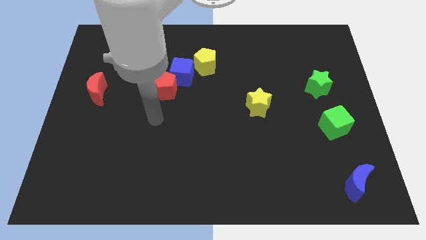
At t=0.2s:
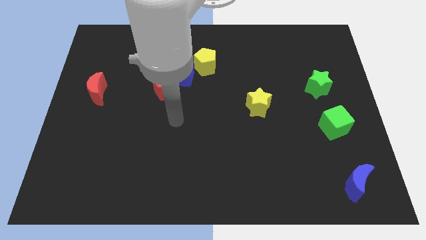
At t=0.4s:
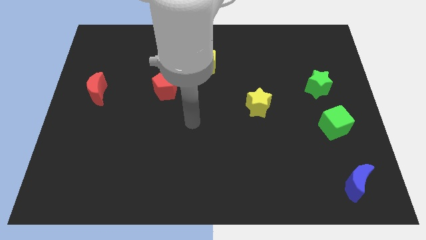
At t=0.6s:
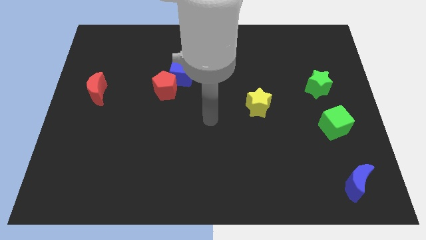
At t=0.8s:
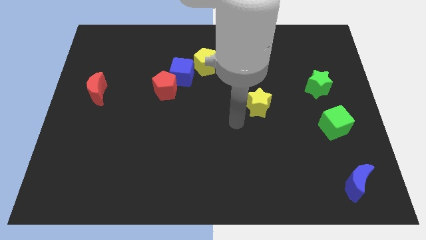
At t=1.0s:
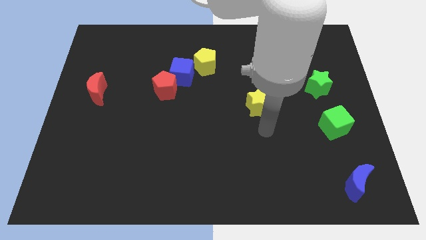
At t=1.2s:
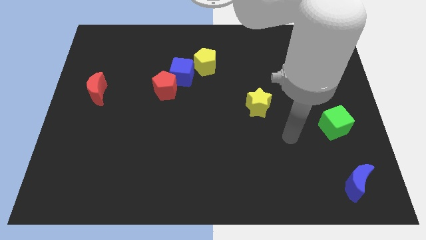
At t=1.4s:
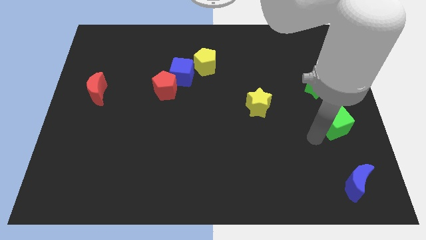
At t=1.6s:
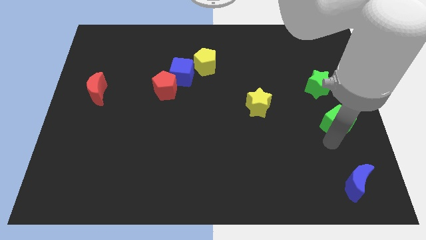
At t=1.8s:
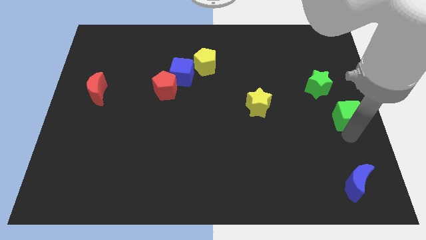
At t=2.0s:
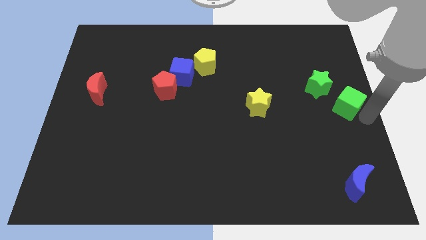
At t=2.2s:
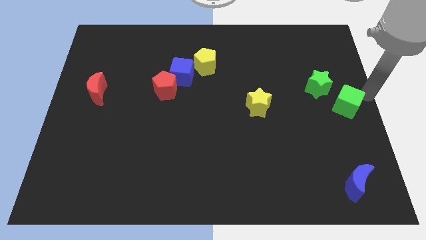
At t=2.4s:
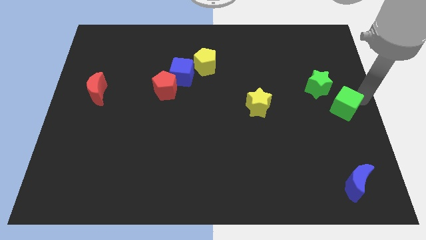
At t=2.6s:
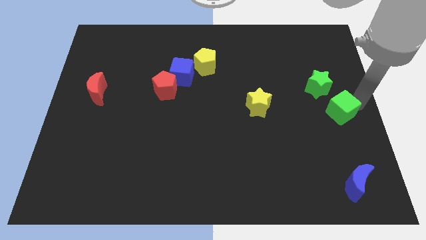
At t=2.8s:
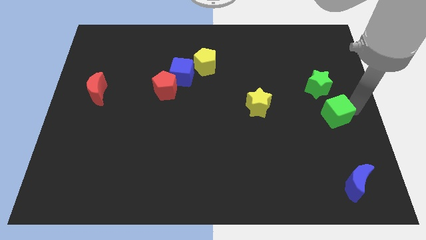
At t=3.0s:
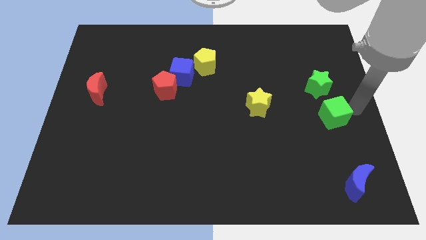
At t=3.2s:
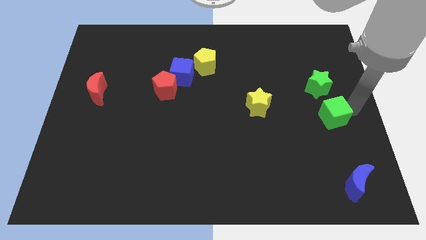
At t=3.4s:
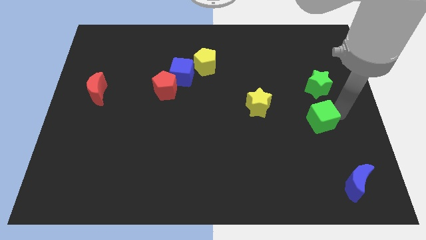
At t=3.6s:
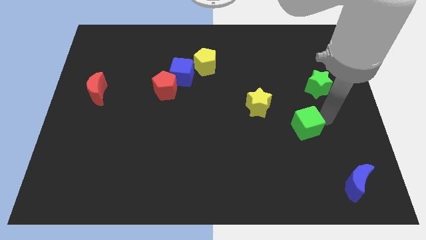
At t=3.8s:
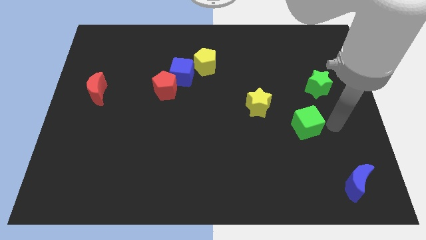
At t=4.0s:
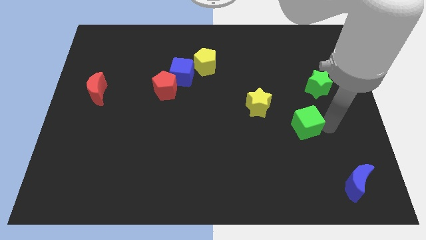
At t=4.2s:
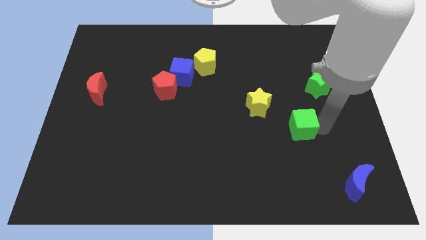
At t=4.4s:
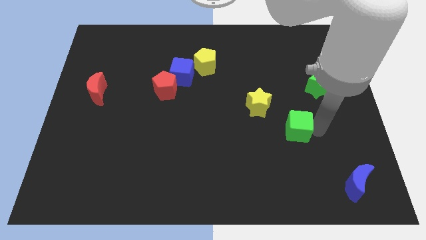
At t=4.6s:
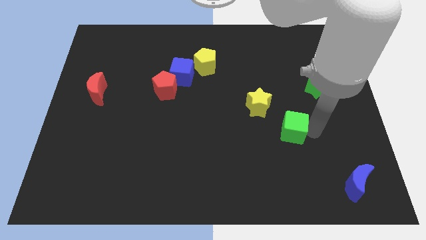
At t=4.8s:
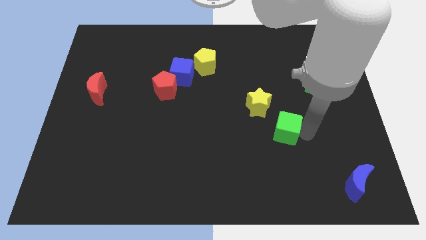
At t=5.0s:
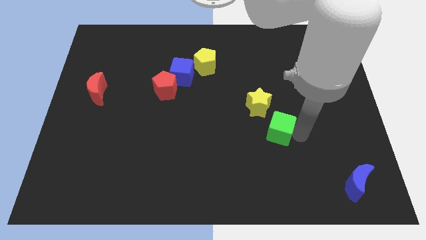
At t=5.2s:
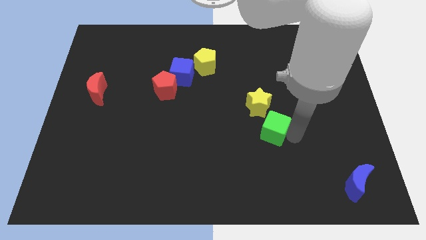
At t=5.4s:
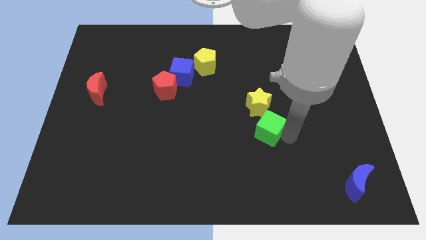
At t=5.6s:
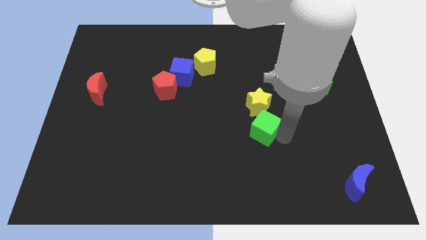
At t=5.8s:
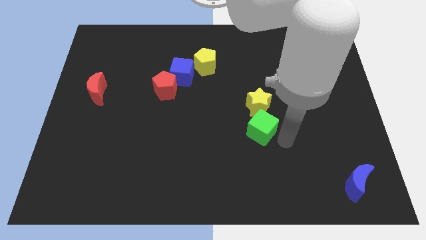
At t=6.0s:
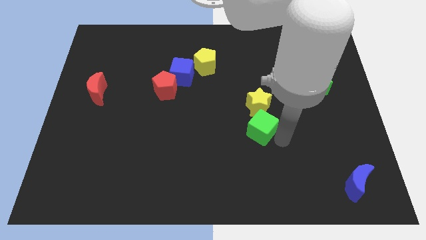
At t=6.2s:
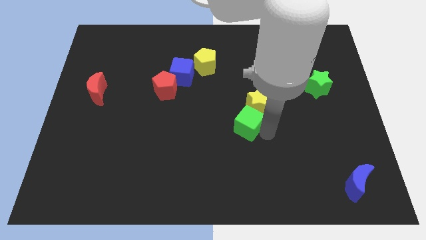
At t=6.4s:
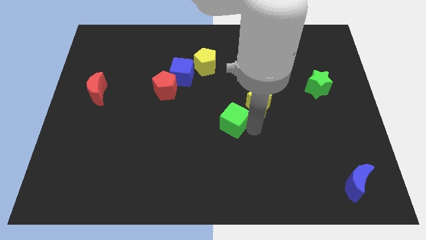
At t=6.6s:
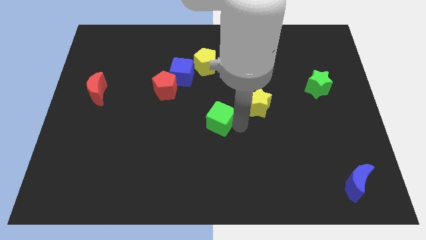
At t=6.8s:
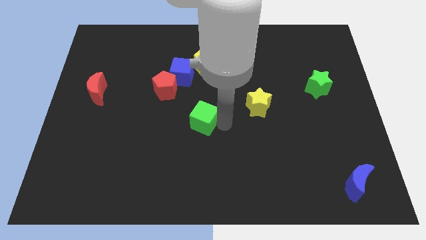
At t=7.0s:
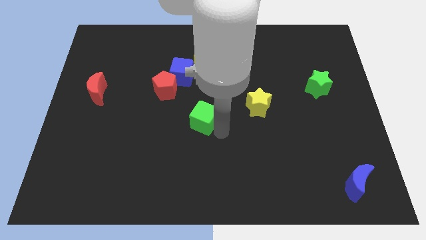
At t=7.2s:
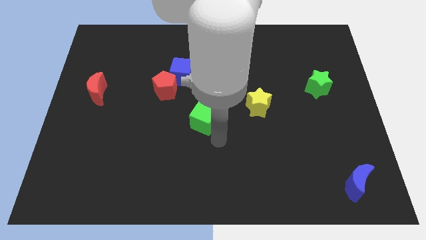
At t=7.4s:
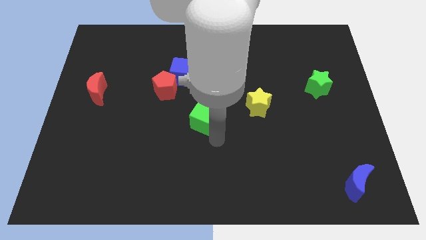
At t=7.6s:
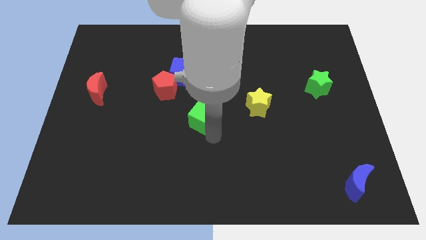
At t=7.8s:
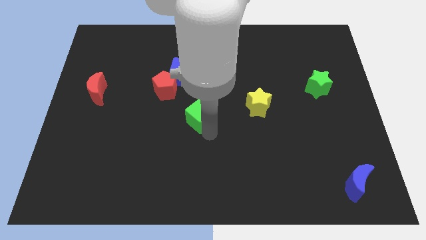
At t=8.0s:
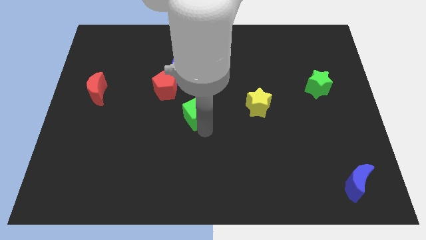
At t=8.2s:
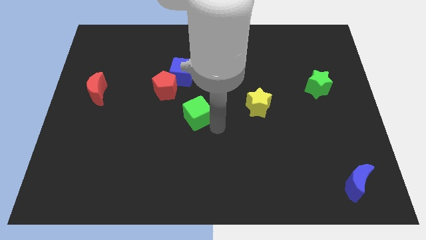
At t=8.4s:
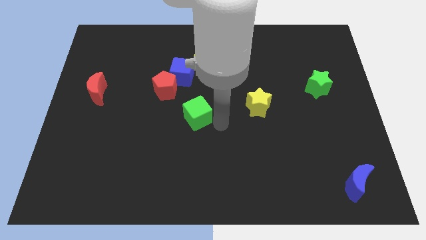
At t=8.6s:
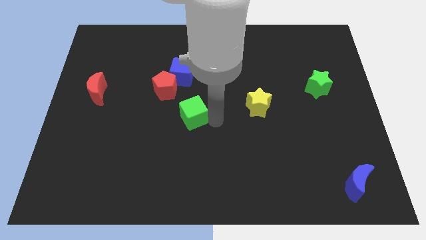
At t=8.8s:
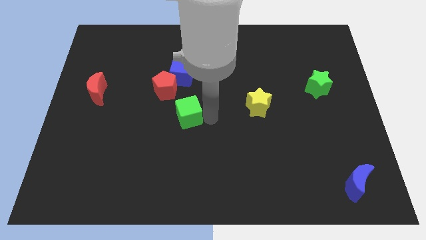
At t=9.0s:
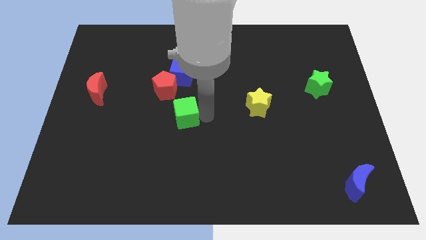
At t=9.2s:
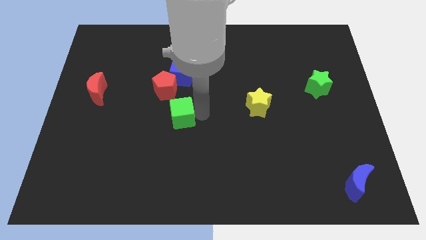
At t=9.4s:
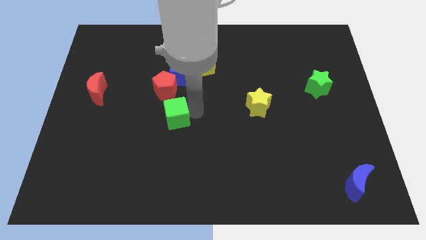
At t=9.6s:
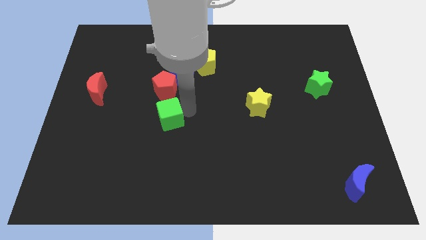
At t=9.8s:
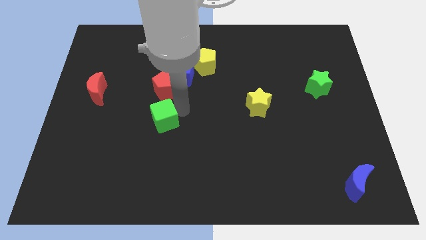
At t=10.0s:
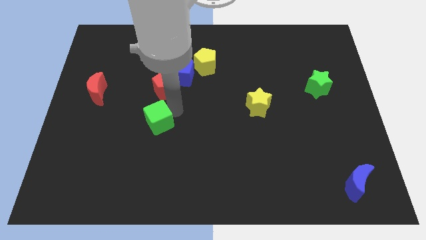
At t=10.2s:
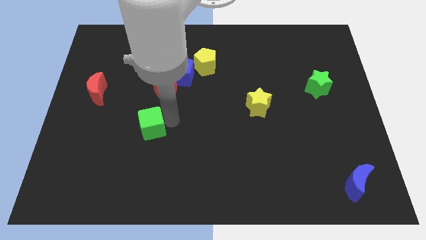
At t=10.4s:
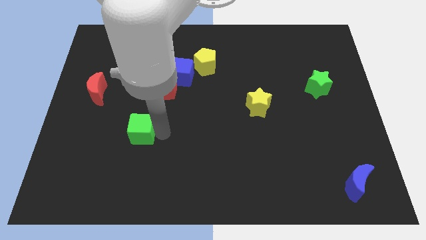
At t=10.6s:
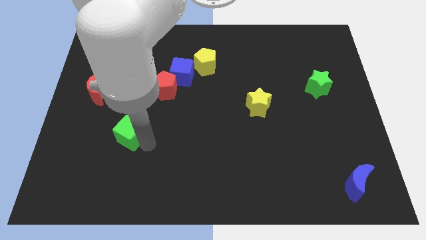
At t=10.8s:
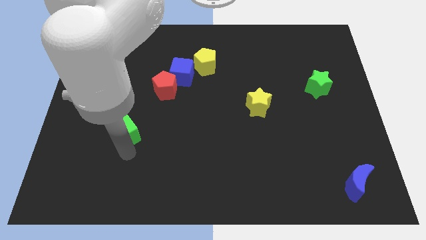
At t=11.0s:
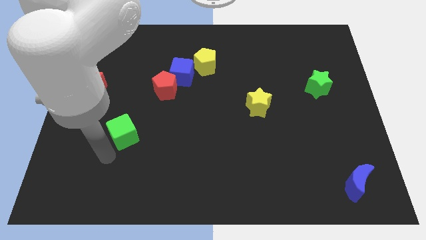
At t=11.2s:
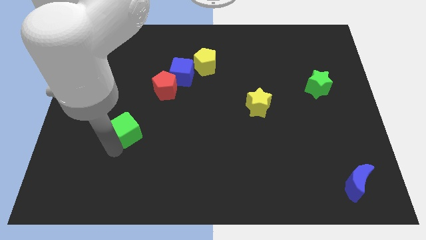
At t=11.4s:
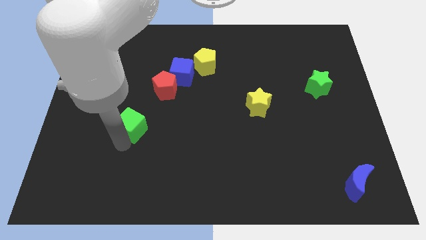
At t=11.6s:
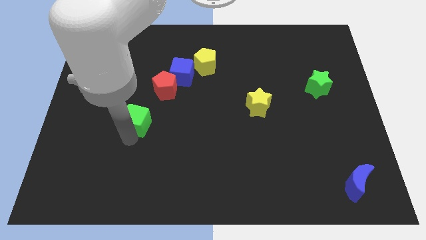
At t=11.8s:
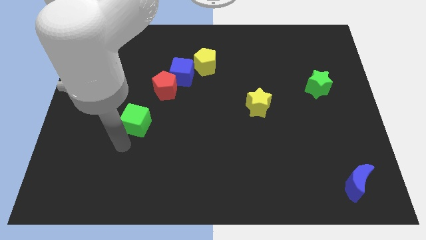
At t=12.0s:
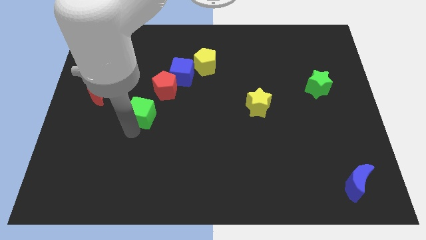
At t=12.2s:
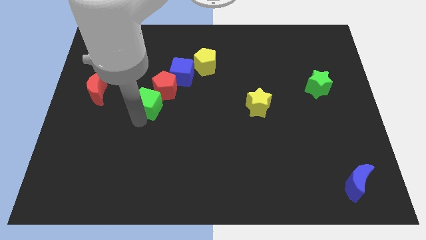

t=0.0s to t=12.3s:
move the green cube to the right of the red moon
